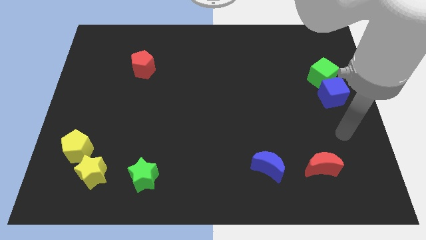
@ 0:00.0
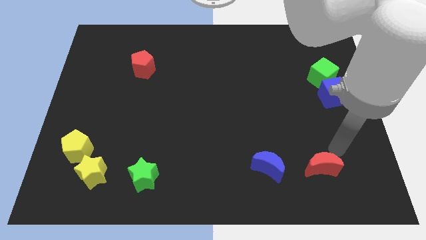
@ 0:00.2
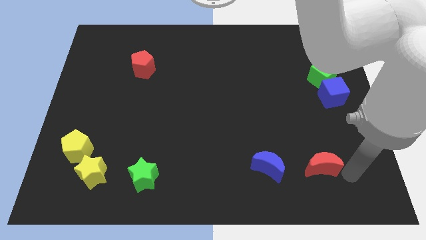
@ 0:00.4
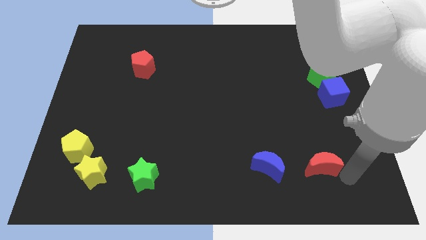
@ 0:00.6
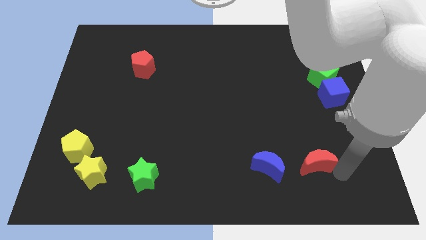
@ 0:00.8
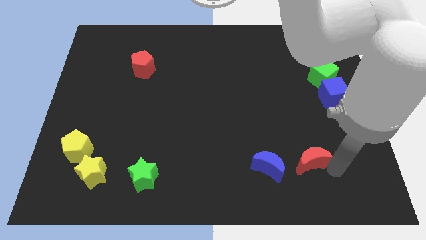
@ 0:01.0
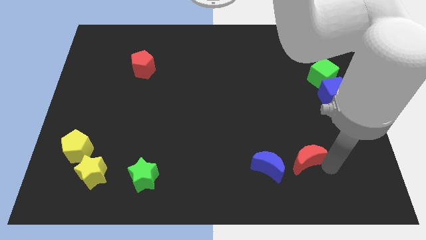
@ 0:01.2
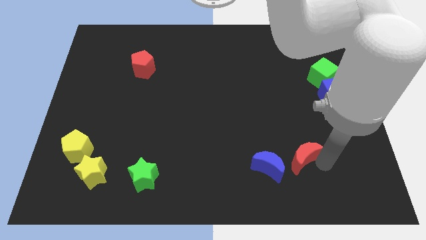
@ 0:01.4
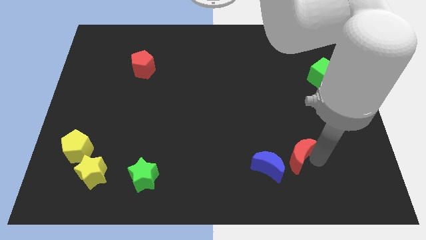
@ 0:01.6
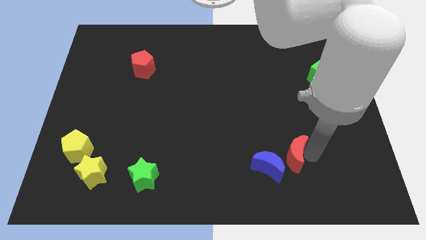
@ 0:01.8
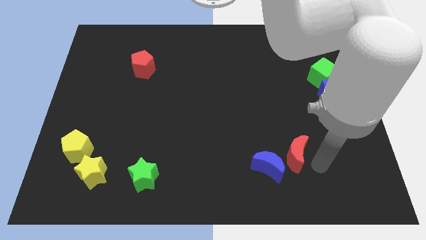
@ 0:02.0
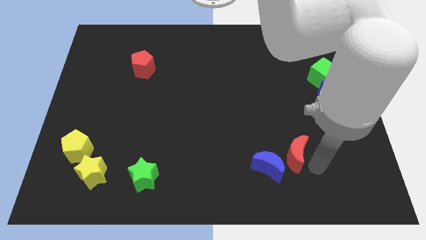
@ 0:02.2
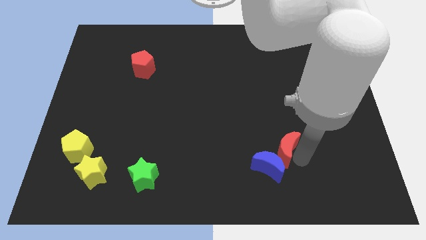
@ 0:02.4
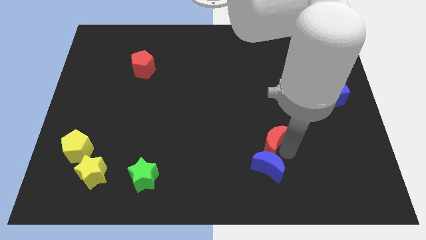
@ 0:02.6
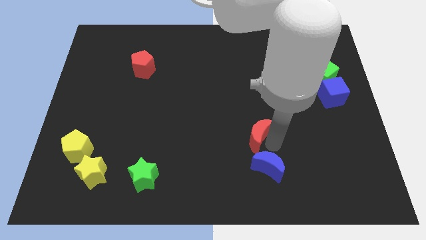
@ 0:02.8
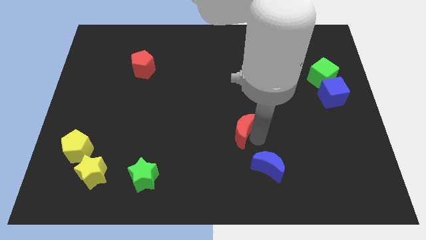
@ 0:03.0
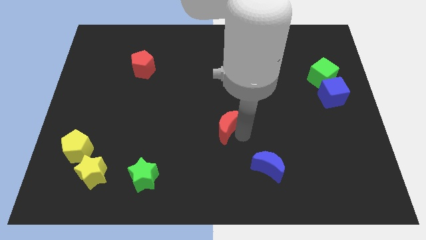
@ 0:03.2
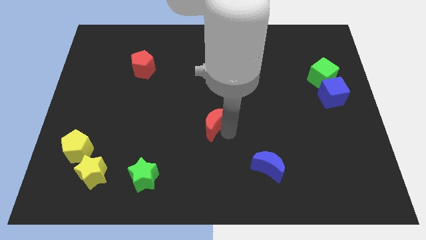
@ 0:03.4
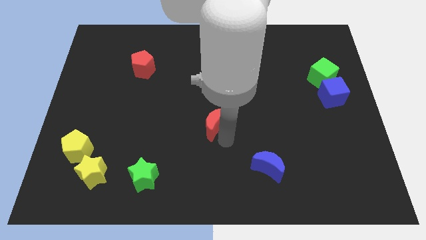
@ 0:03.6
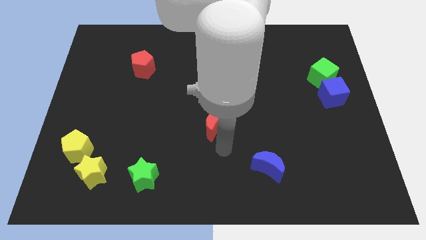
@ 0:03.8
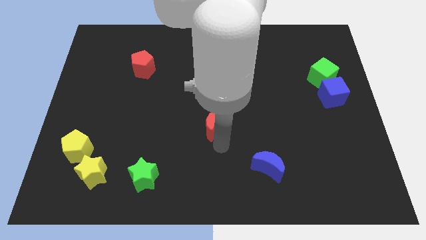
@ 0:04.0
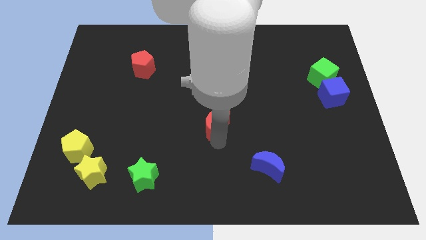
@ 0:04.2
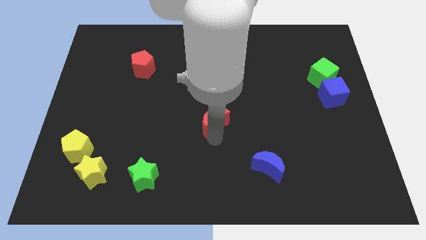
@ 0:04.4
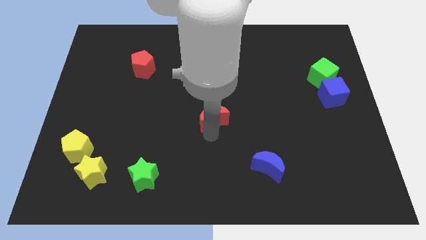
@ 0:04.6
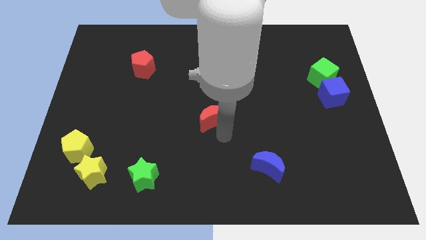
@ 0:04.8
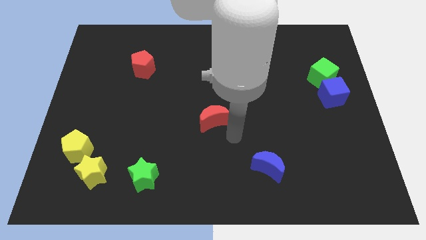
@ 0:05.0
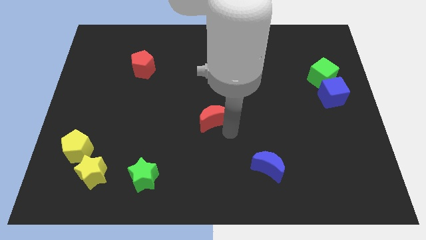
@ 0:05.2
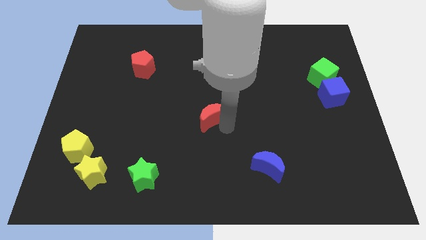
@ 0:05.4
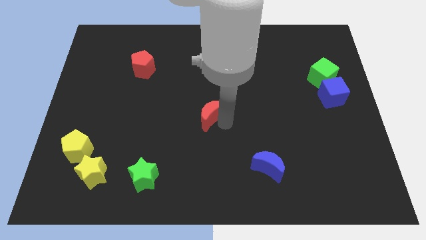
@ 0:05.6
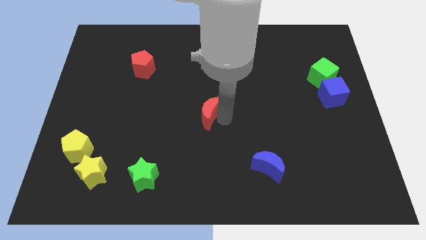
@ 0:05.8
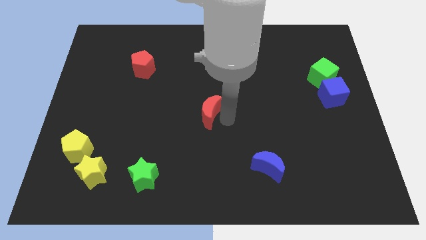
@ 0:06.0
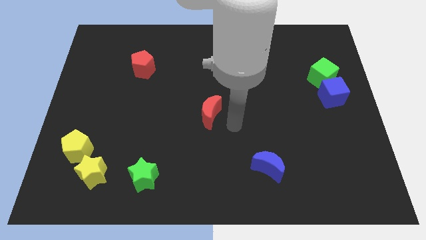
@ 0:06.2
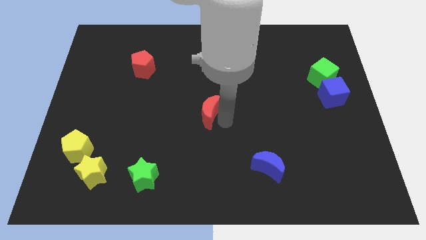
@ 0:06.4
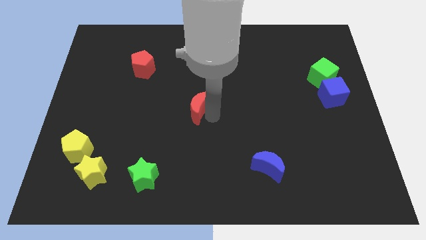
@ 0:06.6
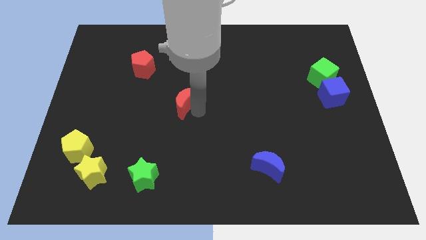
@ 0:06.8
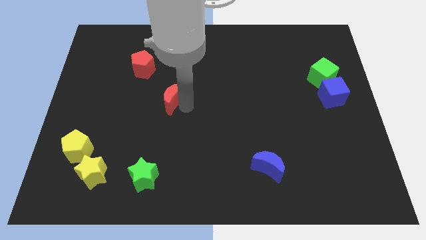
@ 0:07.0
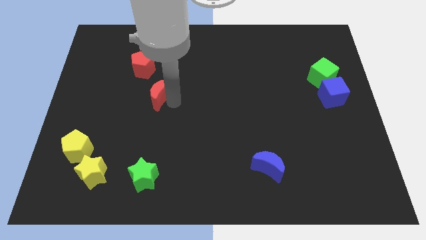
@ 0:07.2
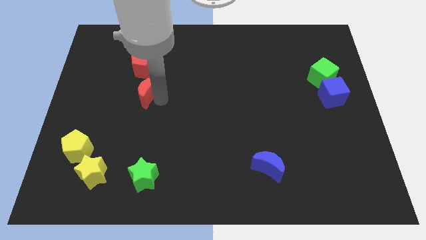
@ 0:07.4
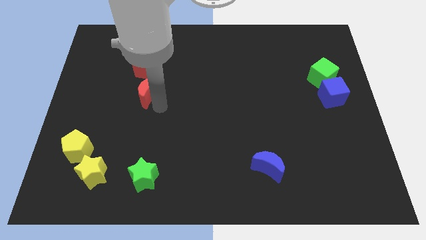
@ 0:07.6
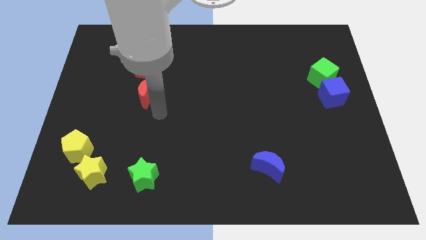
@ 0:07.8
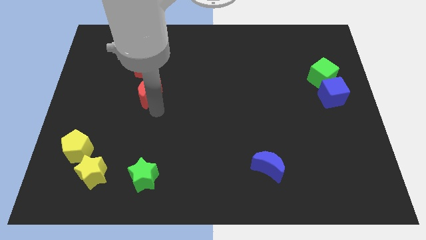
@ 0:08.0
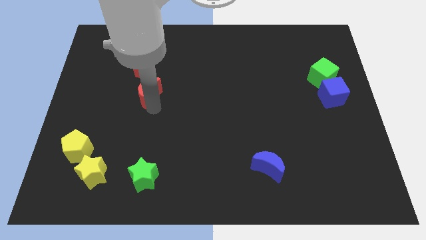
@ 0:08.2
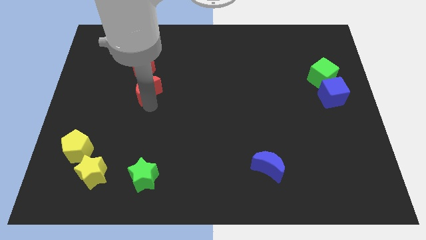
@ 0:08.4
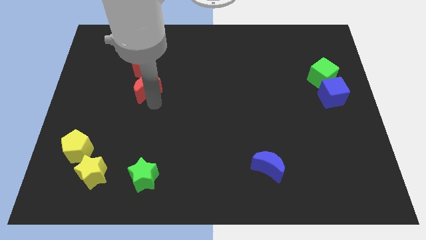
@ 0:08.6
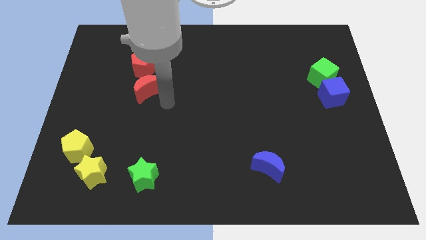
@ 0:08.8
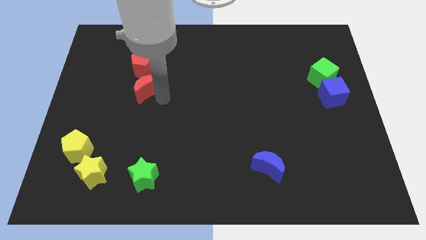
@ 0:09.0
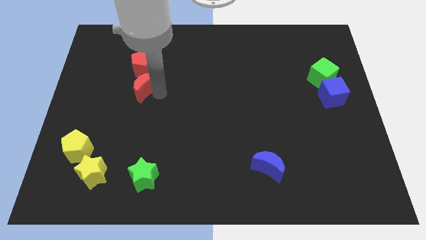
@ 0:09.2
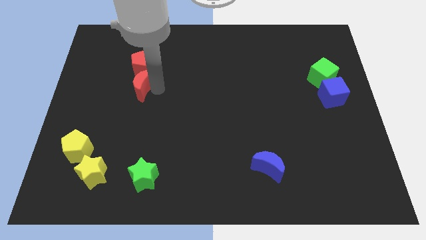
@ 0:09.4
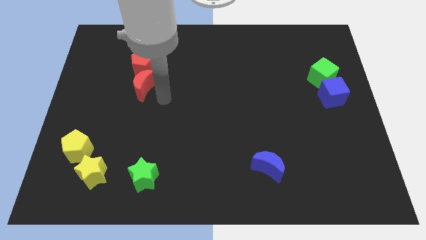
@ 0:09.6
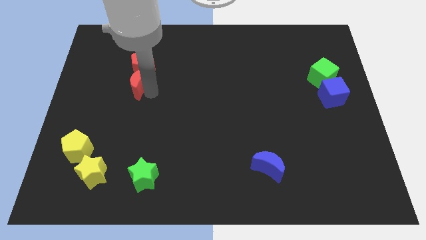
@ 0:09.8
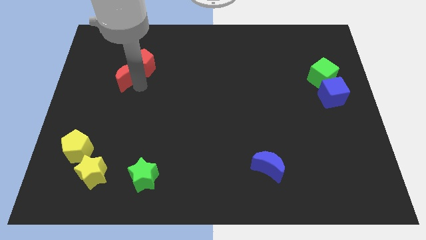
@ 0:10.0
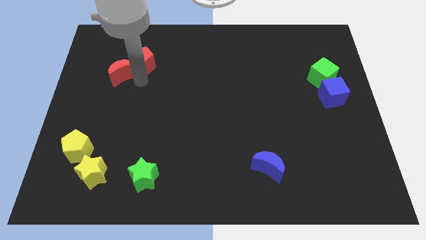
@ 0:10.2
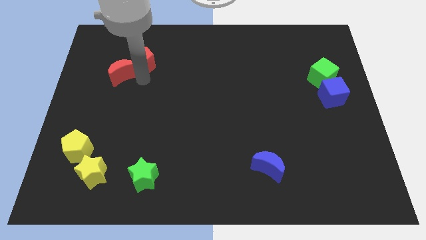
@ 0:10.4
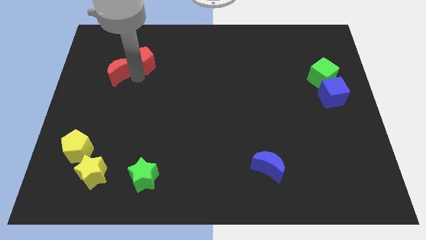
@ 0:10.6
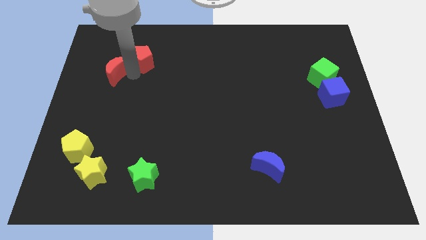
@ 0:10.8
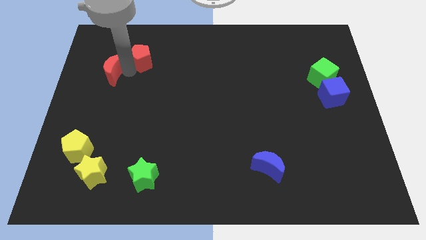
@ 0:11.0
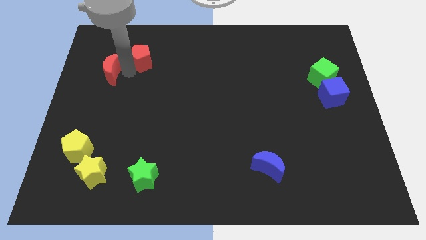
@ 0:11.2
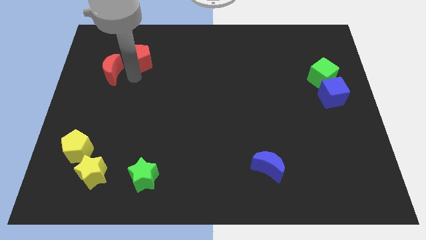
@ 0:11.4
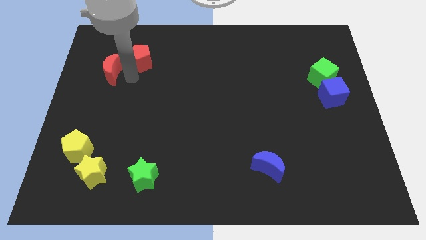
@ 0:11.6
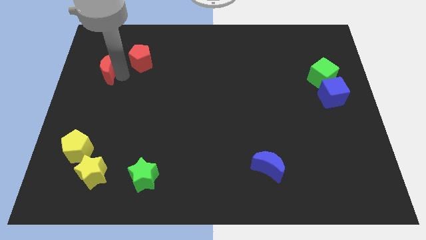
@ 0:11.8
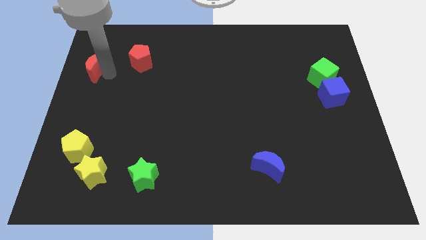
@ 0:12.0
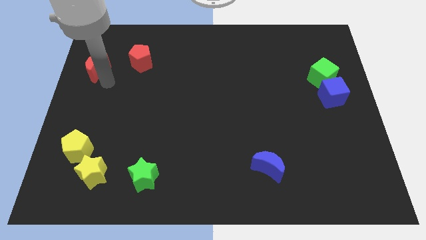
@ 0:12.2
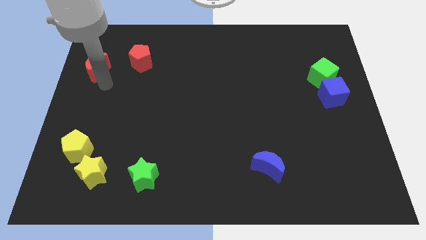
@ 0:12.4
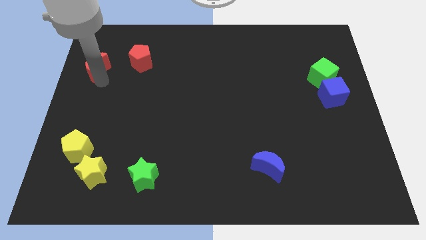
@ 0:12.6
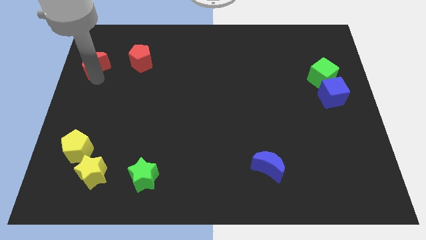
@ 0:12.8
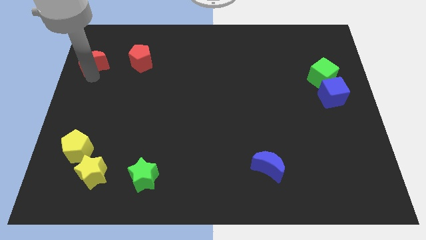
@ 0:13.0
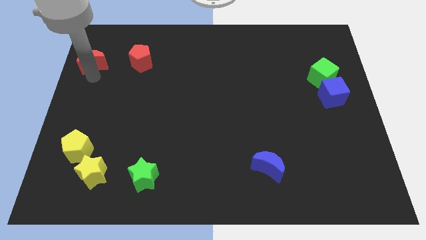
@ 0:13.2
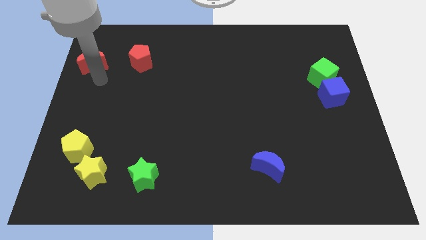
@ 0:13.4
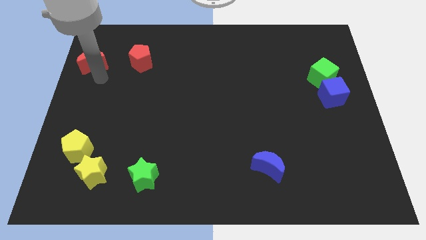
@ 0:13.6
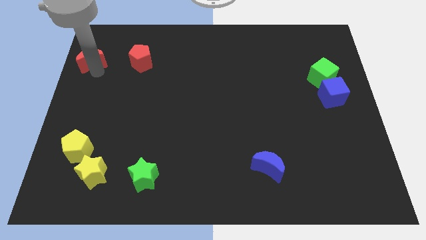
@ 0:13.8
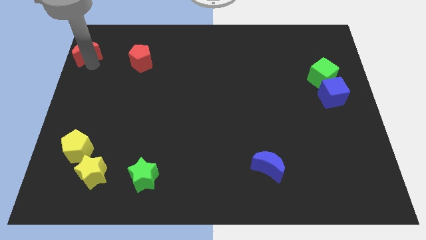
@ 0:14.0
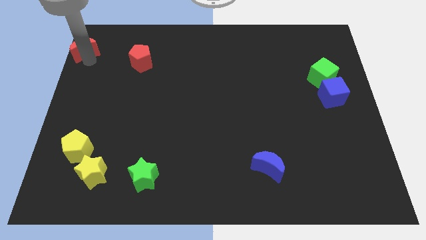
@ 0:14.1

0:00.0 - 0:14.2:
move the red moon to the top left of the board
